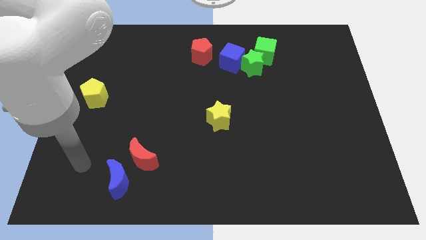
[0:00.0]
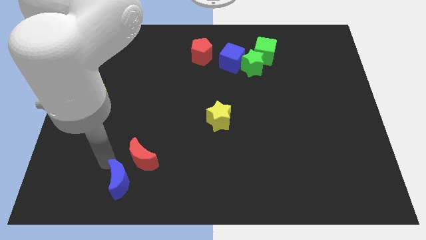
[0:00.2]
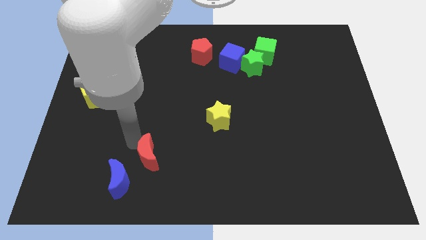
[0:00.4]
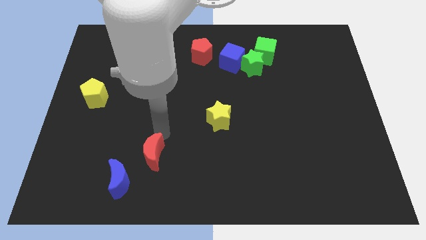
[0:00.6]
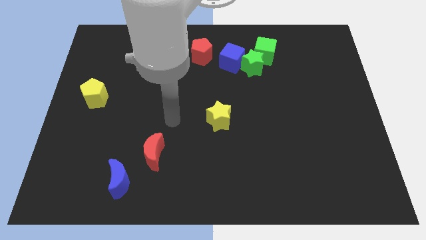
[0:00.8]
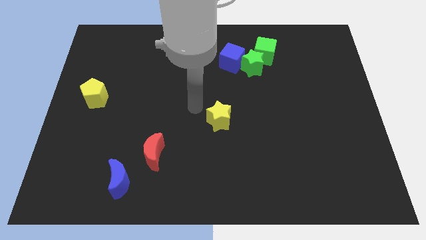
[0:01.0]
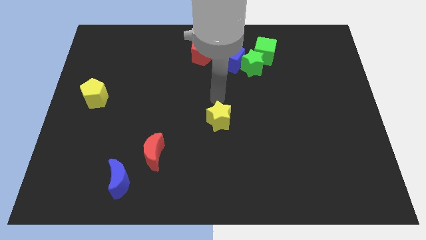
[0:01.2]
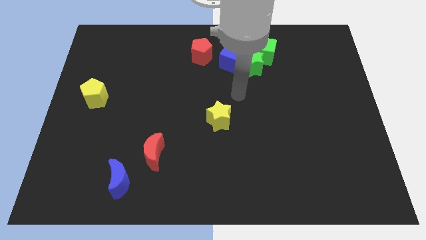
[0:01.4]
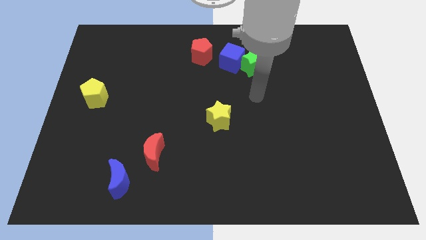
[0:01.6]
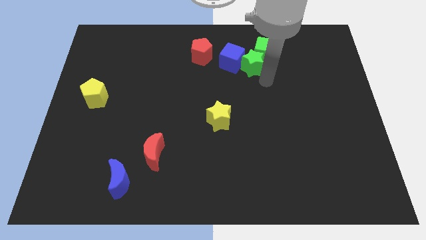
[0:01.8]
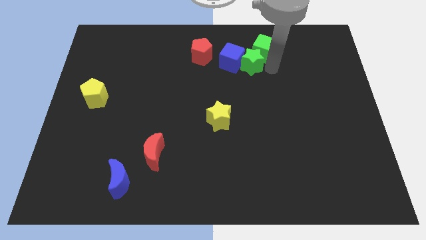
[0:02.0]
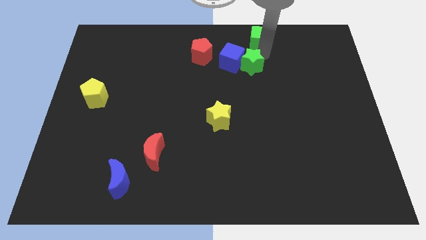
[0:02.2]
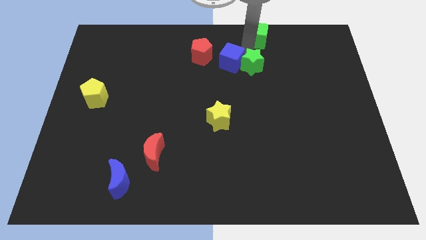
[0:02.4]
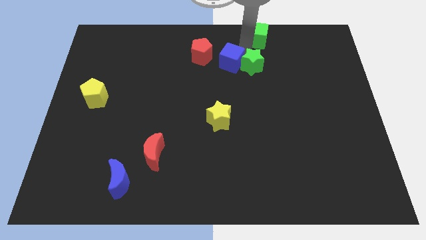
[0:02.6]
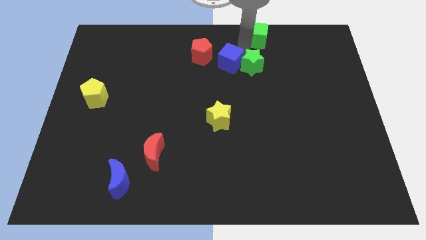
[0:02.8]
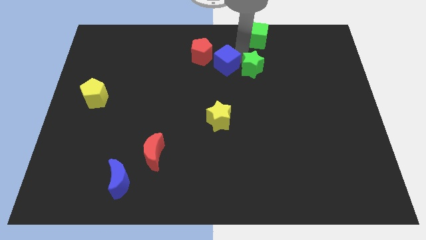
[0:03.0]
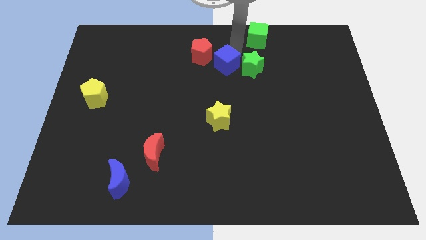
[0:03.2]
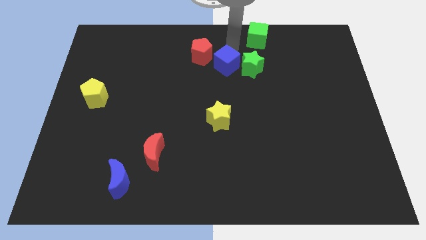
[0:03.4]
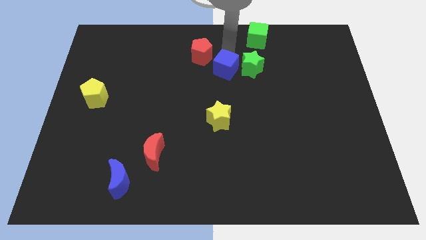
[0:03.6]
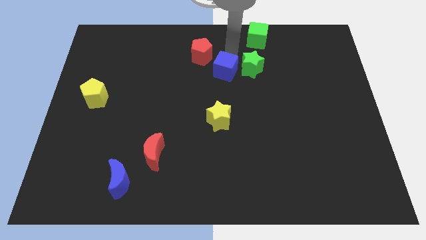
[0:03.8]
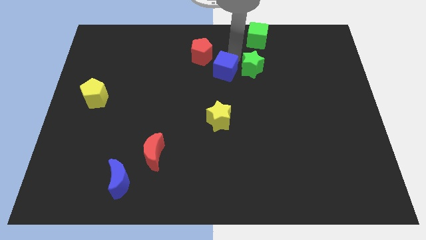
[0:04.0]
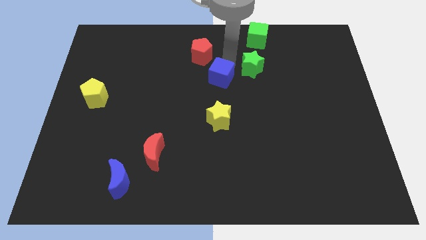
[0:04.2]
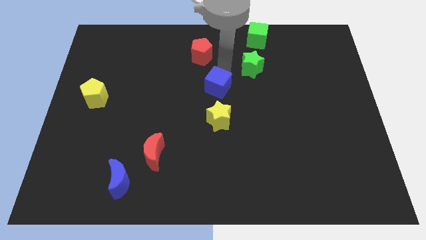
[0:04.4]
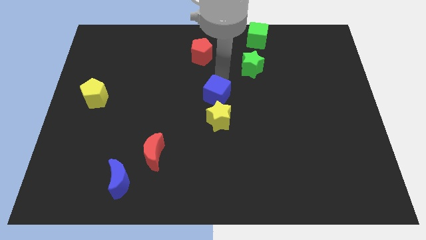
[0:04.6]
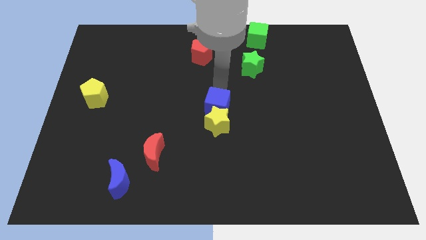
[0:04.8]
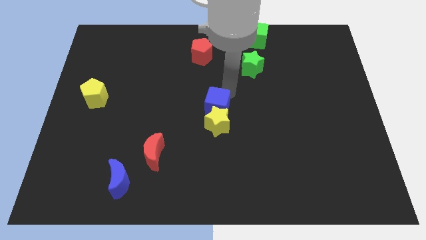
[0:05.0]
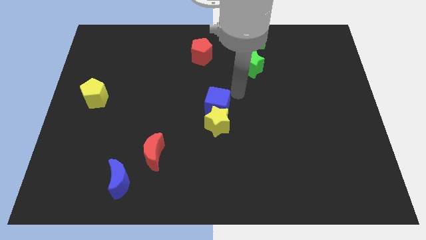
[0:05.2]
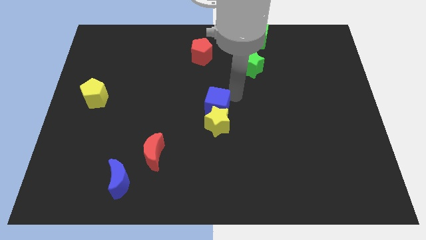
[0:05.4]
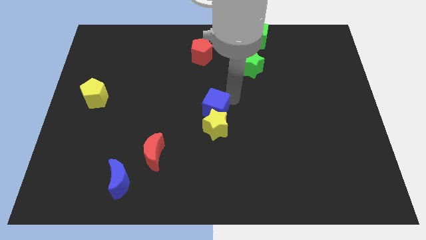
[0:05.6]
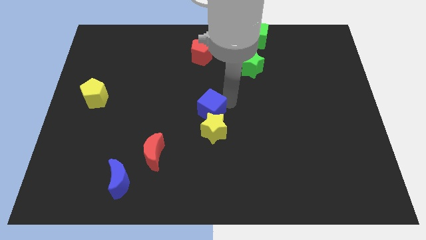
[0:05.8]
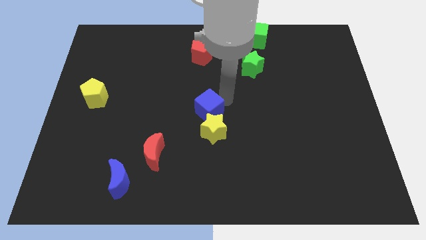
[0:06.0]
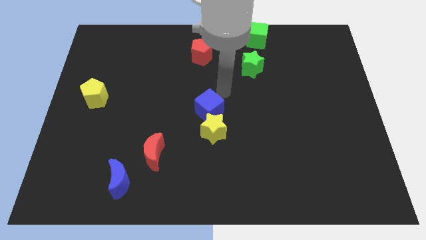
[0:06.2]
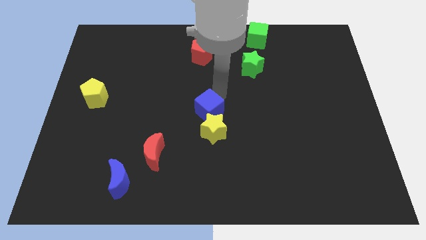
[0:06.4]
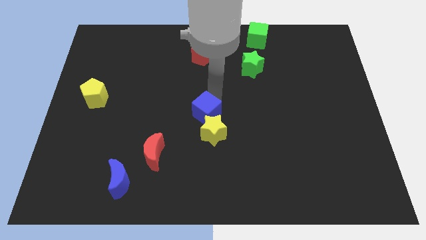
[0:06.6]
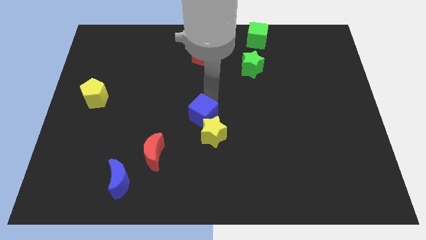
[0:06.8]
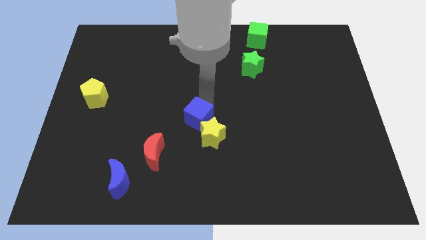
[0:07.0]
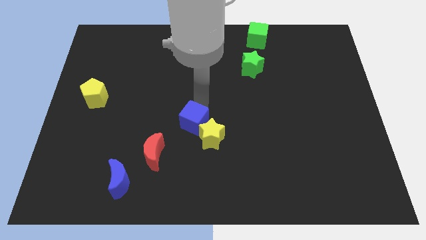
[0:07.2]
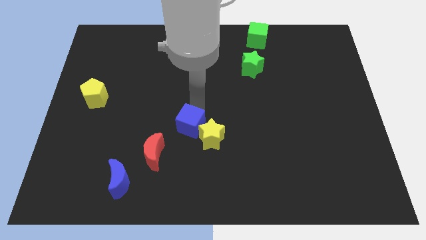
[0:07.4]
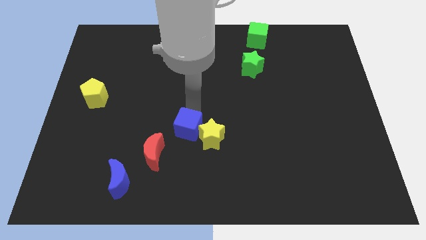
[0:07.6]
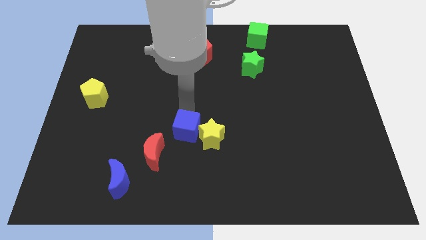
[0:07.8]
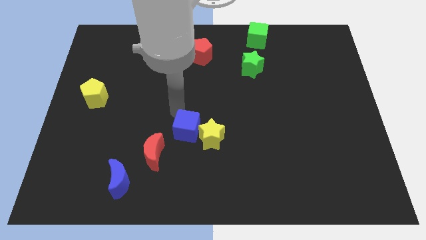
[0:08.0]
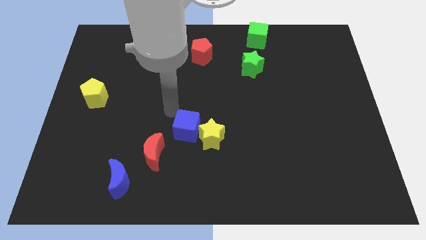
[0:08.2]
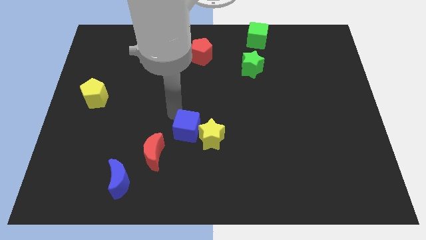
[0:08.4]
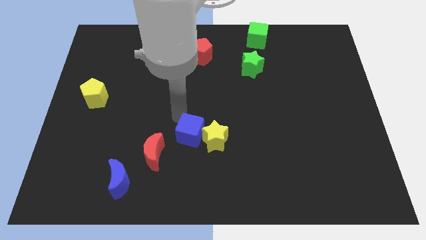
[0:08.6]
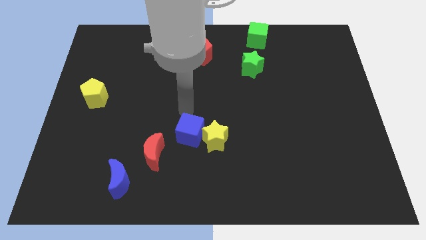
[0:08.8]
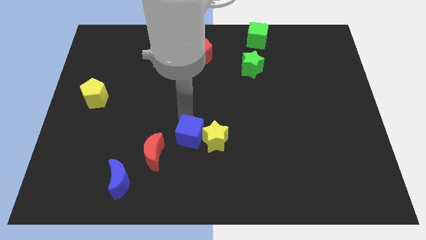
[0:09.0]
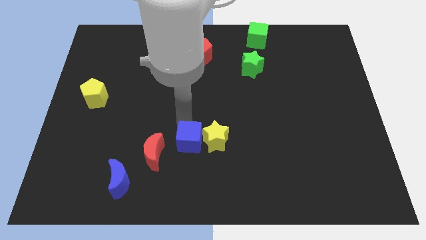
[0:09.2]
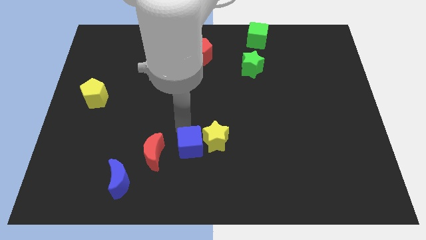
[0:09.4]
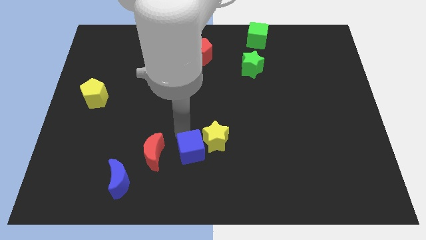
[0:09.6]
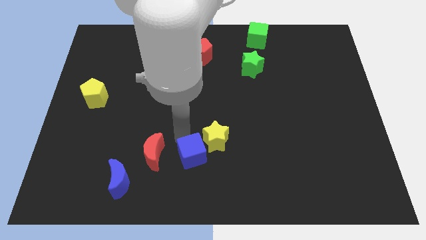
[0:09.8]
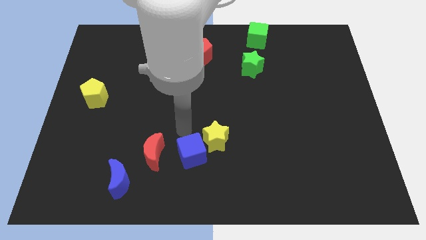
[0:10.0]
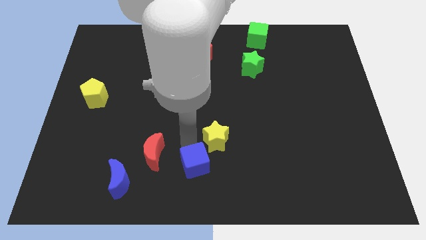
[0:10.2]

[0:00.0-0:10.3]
put the blue cube to the bottom

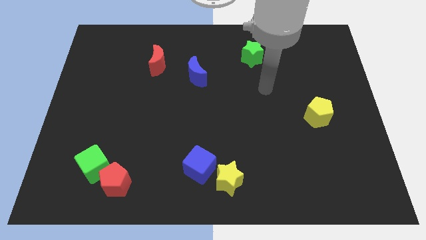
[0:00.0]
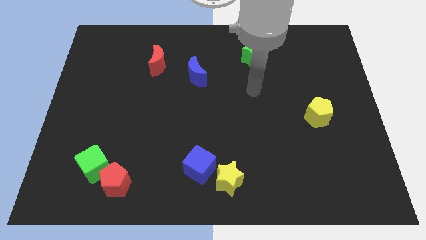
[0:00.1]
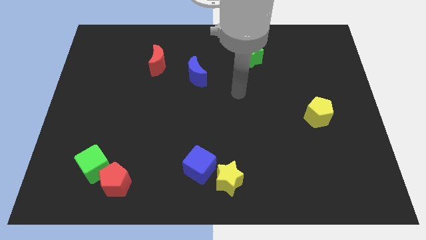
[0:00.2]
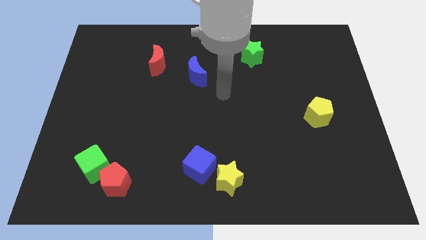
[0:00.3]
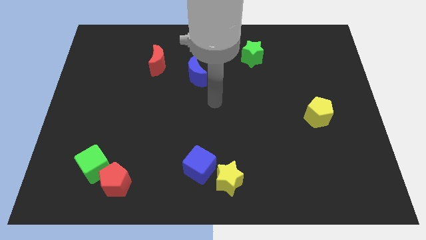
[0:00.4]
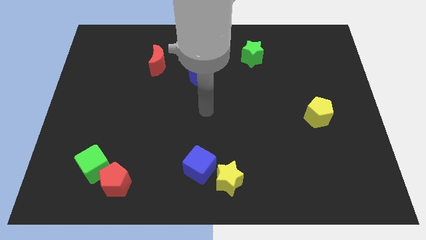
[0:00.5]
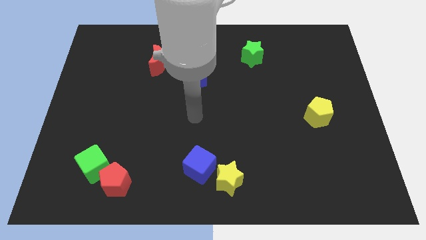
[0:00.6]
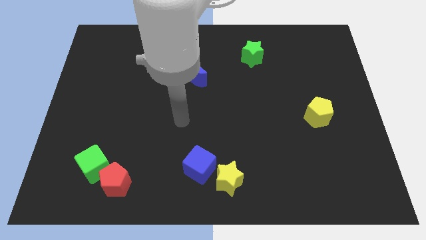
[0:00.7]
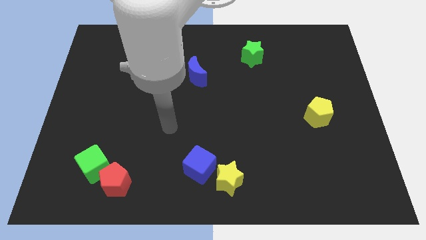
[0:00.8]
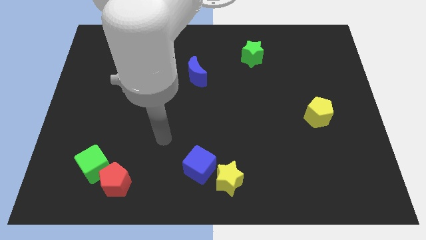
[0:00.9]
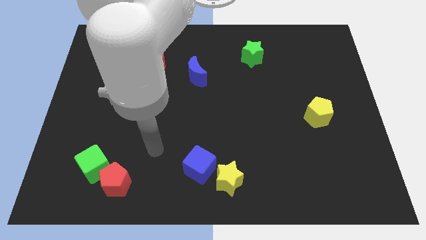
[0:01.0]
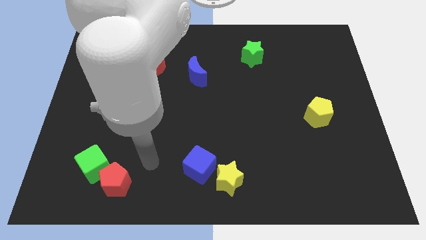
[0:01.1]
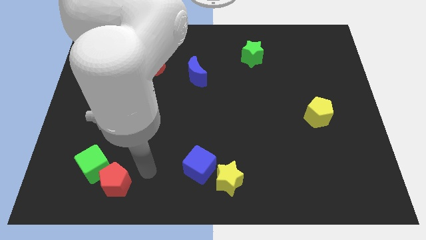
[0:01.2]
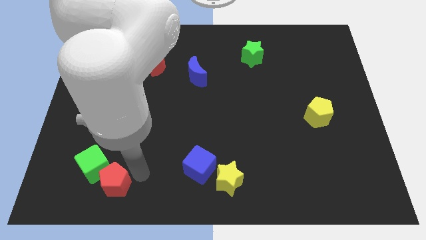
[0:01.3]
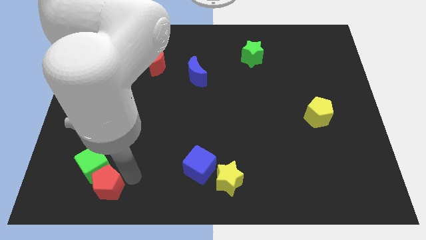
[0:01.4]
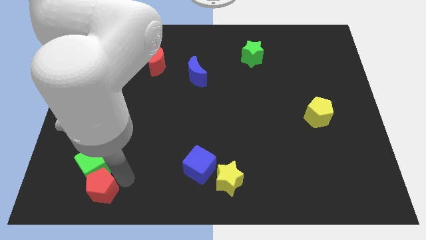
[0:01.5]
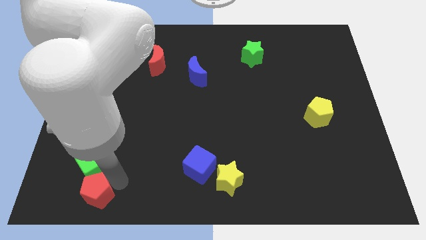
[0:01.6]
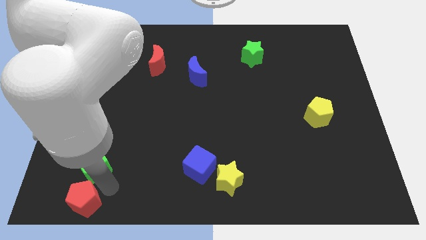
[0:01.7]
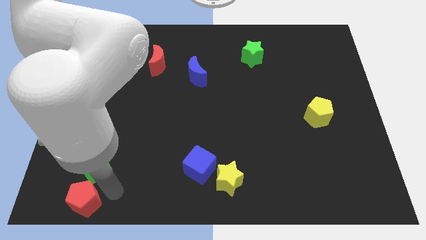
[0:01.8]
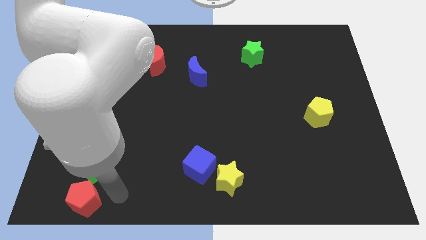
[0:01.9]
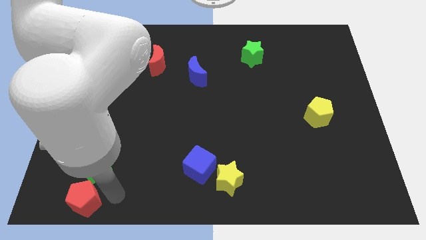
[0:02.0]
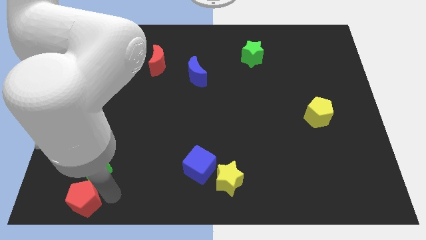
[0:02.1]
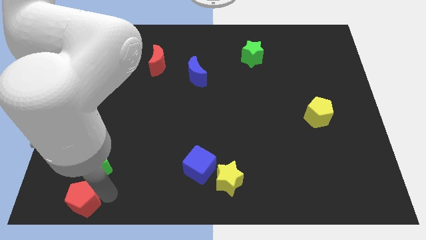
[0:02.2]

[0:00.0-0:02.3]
push the red pentagon to the lower left corner
